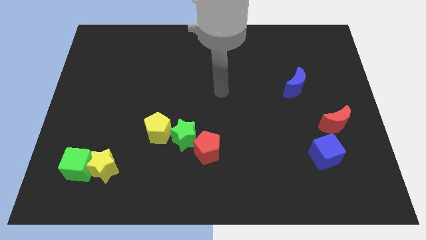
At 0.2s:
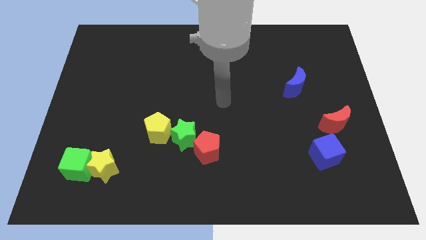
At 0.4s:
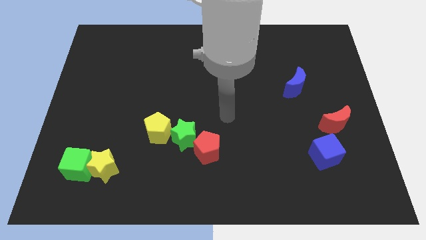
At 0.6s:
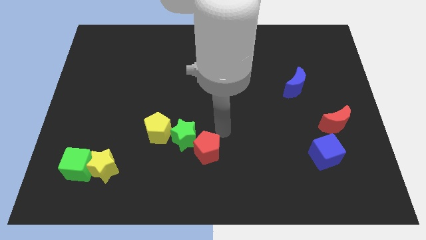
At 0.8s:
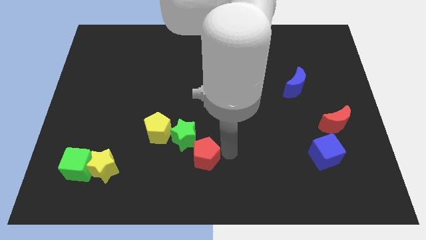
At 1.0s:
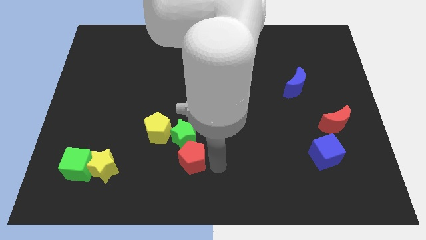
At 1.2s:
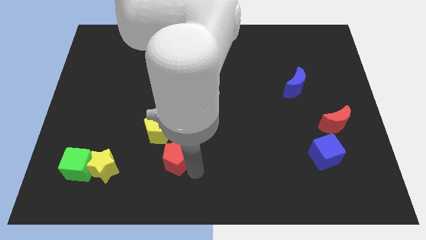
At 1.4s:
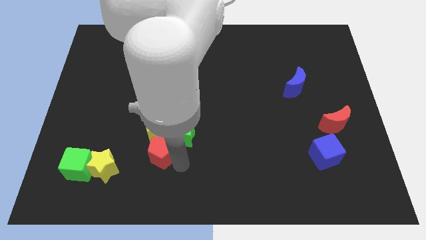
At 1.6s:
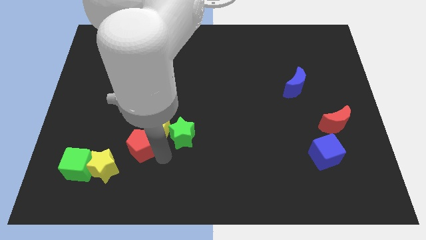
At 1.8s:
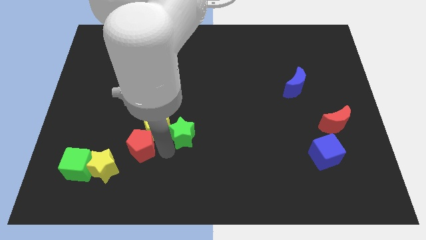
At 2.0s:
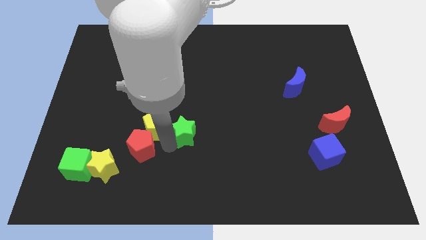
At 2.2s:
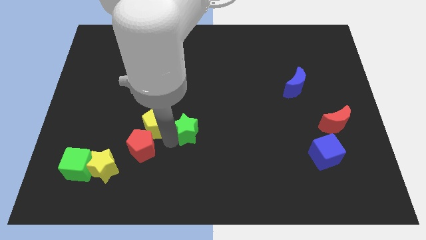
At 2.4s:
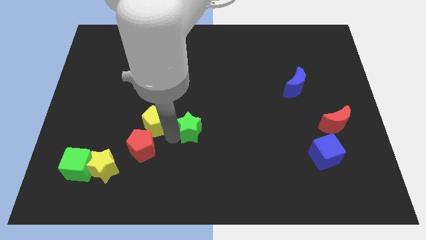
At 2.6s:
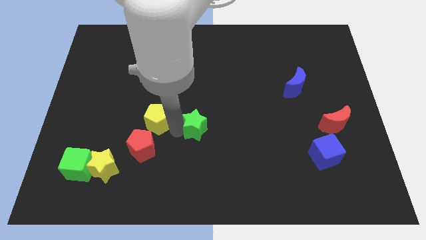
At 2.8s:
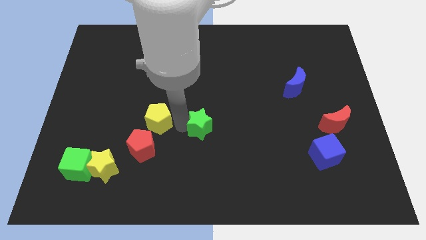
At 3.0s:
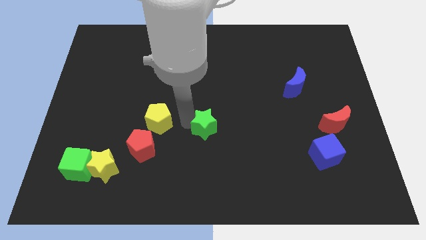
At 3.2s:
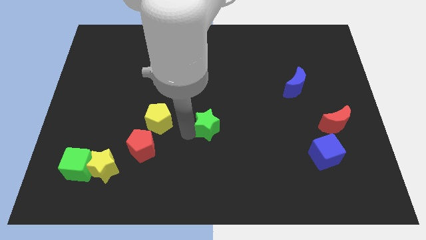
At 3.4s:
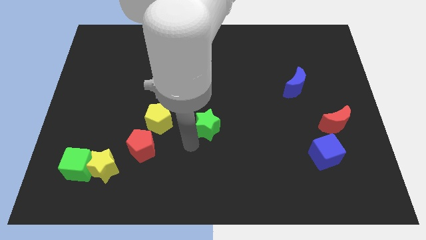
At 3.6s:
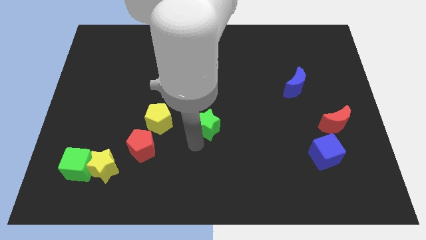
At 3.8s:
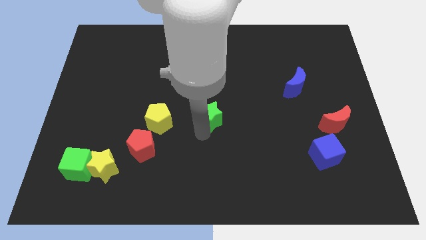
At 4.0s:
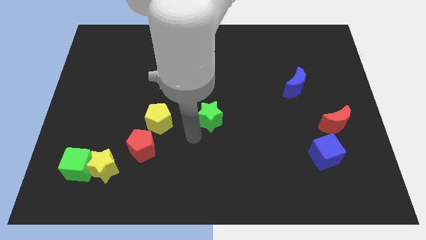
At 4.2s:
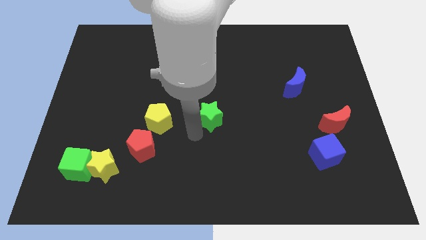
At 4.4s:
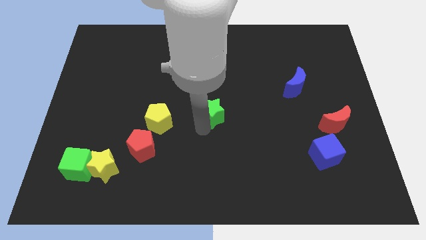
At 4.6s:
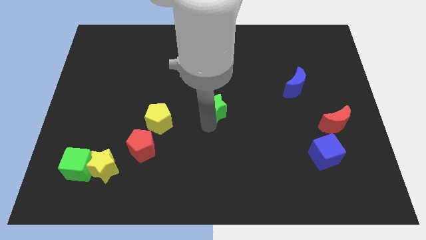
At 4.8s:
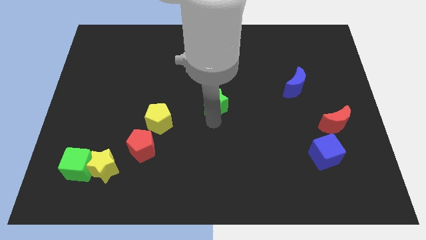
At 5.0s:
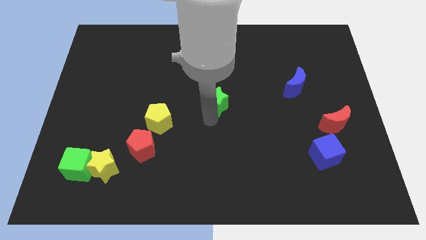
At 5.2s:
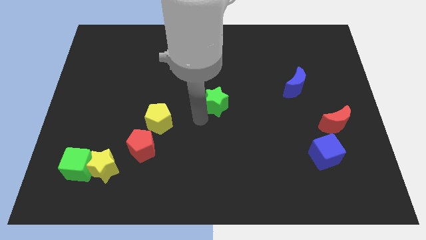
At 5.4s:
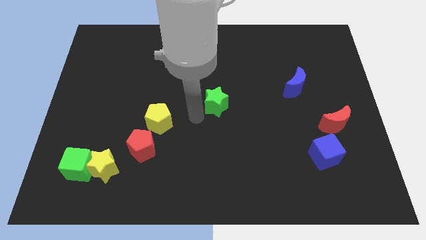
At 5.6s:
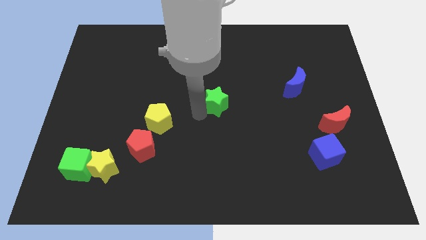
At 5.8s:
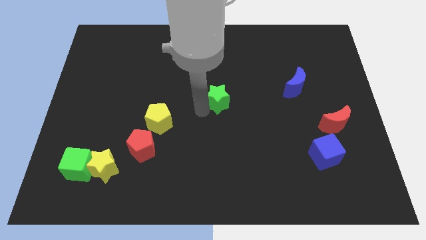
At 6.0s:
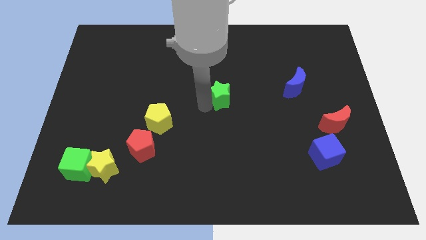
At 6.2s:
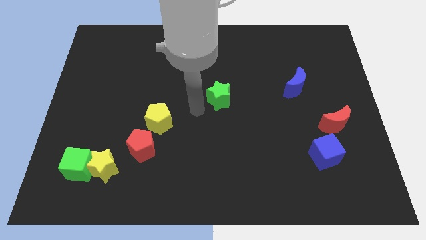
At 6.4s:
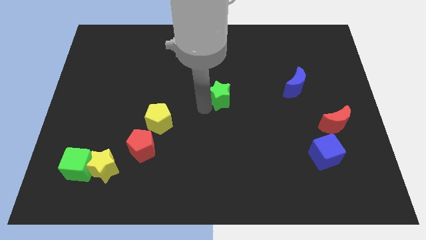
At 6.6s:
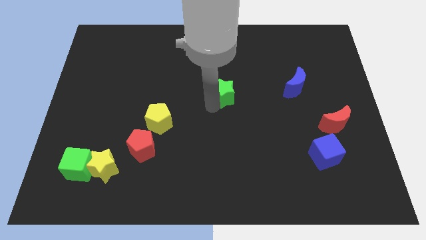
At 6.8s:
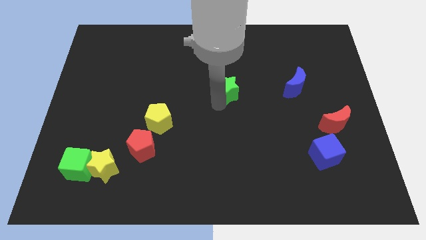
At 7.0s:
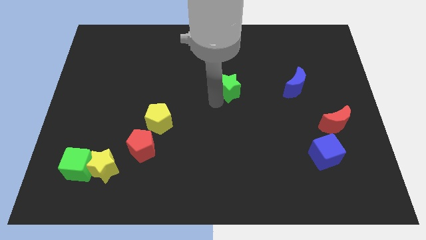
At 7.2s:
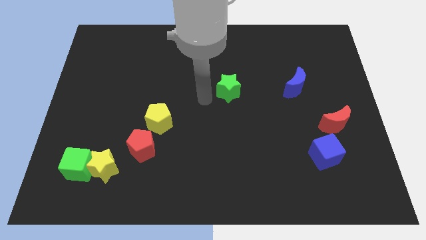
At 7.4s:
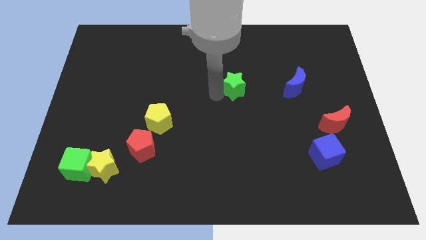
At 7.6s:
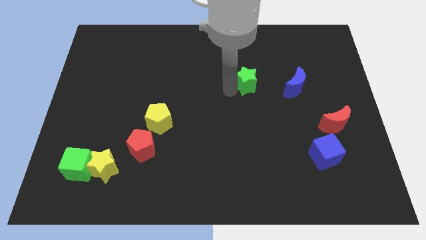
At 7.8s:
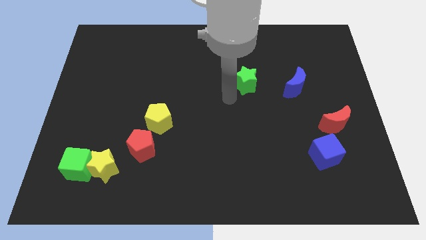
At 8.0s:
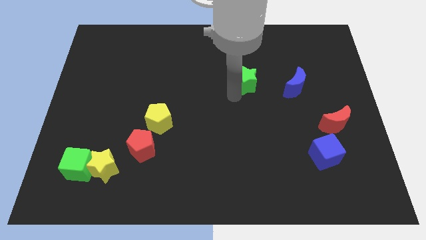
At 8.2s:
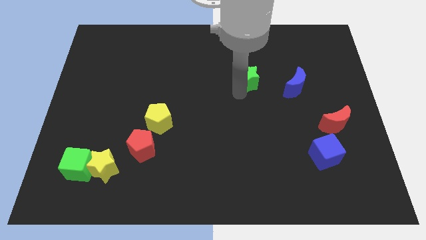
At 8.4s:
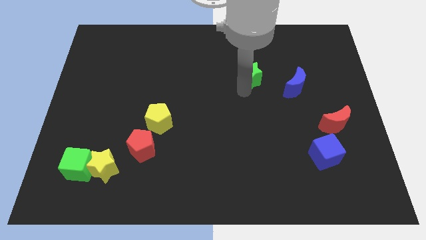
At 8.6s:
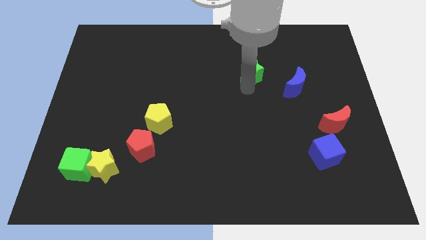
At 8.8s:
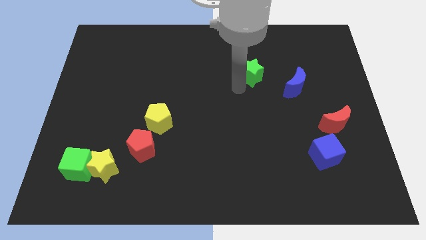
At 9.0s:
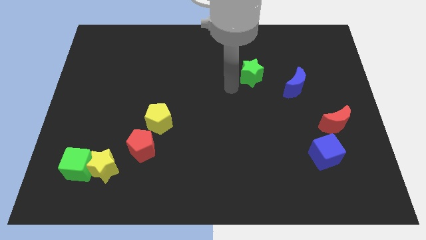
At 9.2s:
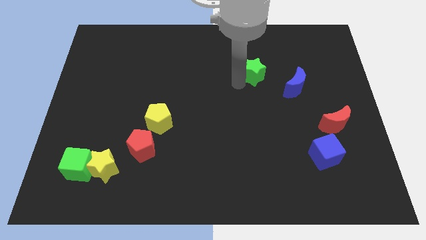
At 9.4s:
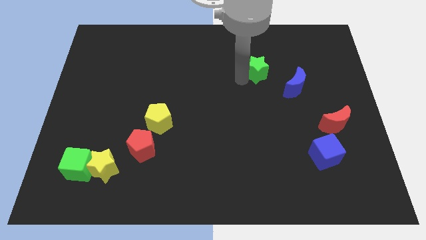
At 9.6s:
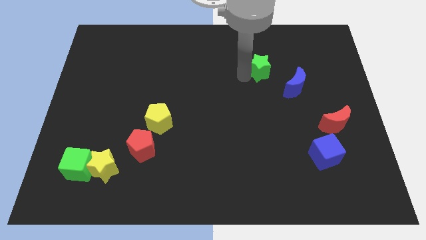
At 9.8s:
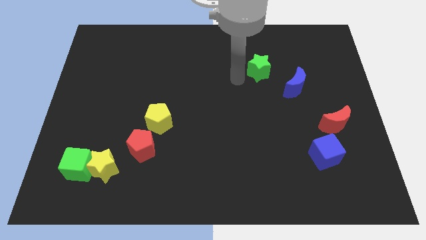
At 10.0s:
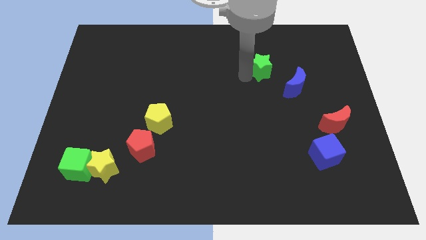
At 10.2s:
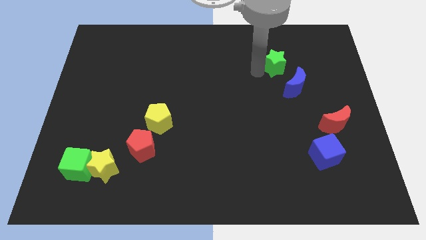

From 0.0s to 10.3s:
move the green star to the top side of the blue moon

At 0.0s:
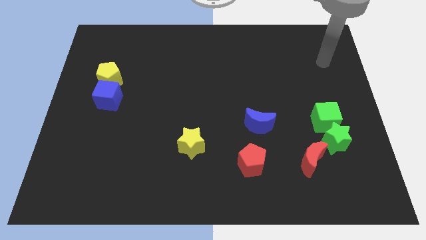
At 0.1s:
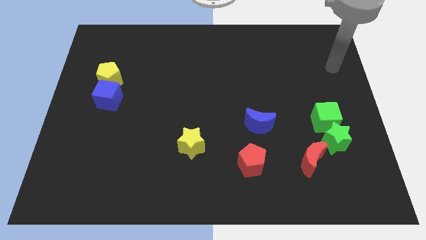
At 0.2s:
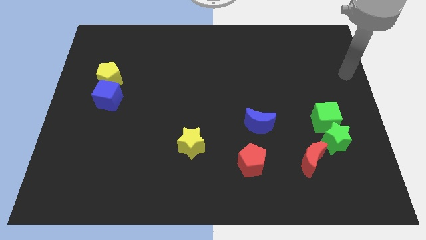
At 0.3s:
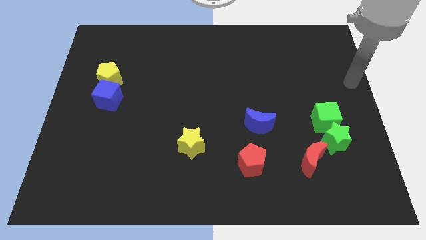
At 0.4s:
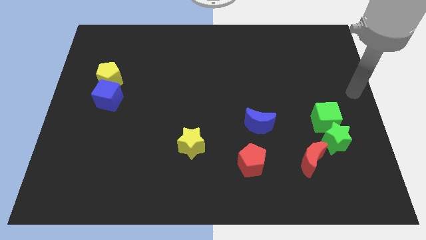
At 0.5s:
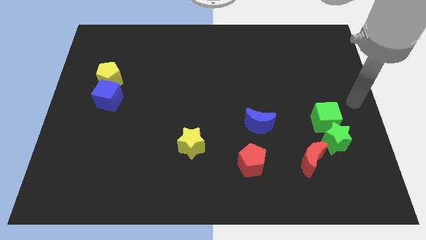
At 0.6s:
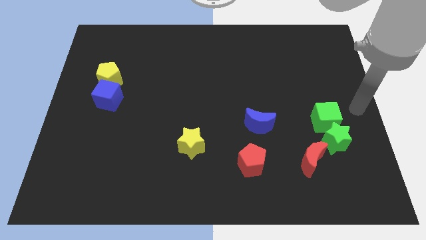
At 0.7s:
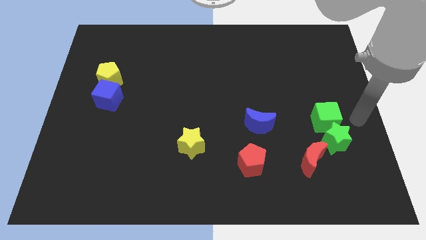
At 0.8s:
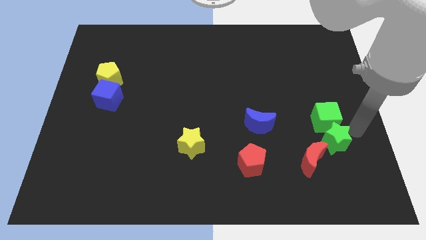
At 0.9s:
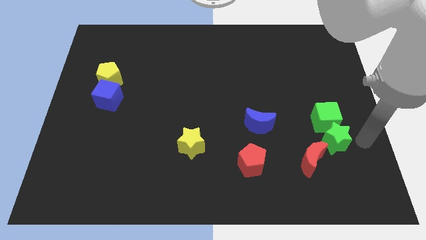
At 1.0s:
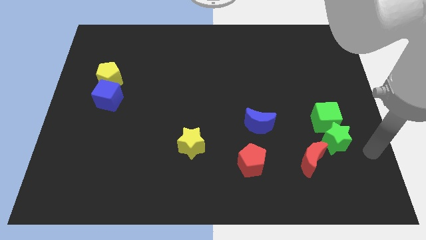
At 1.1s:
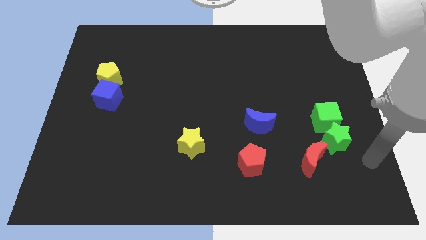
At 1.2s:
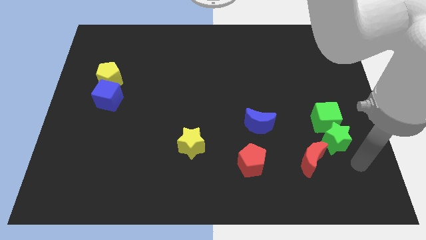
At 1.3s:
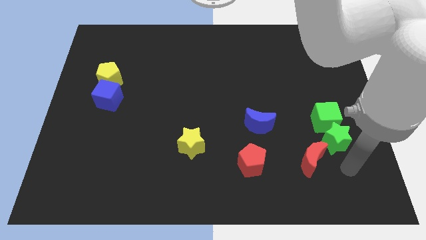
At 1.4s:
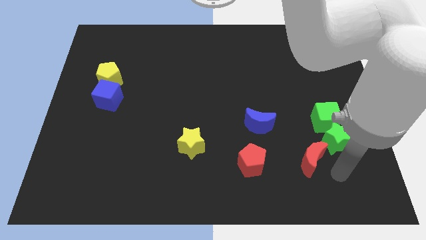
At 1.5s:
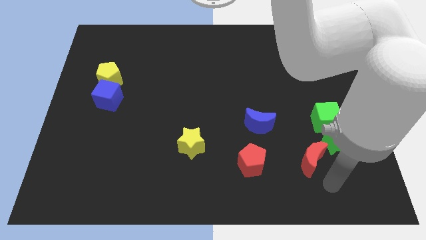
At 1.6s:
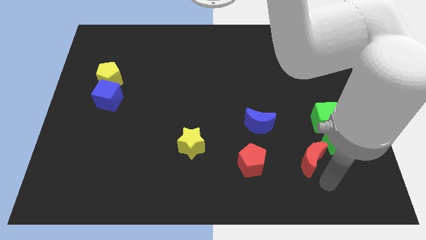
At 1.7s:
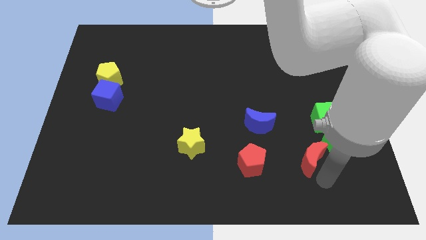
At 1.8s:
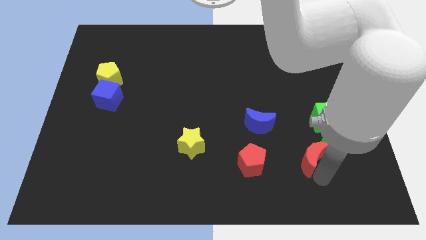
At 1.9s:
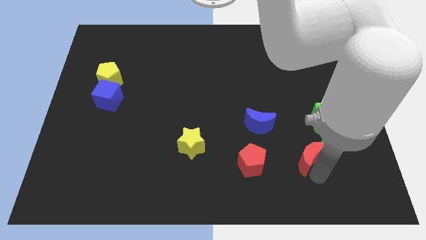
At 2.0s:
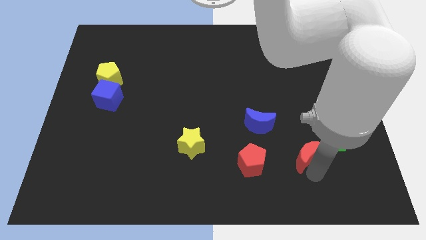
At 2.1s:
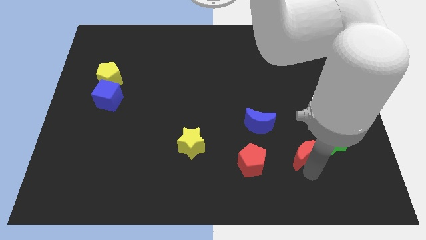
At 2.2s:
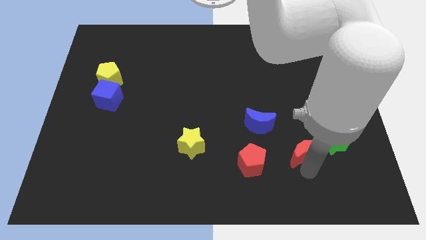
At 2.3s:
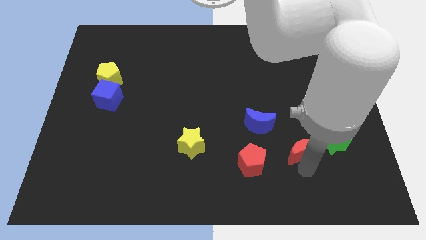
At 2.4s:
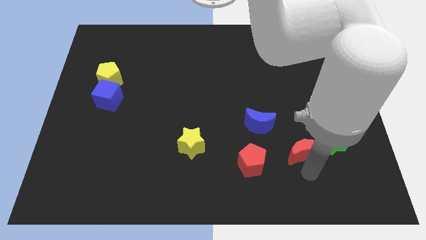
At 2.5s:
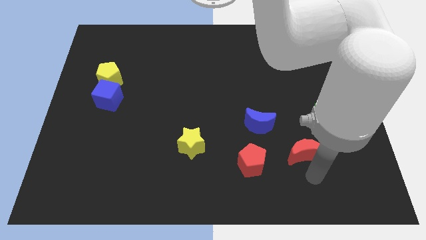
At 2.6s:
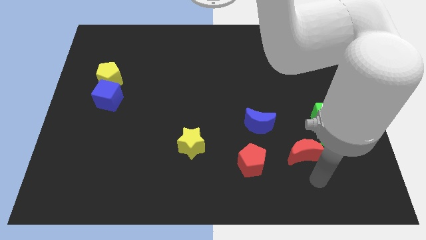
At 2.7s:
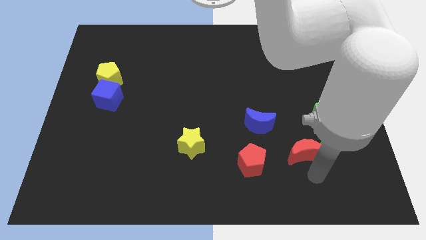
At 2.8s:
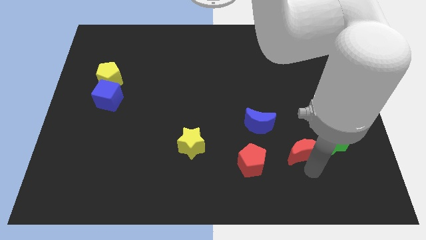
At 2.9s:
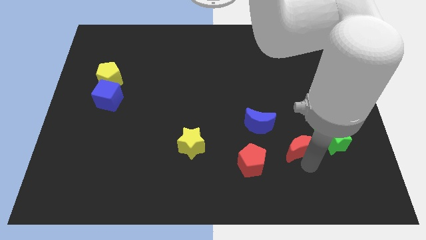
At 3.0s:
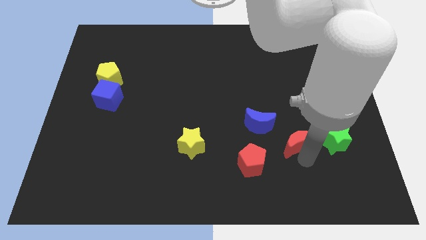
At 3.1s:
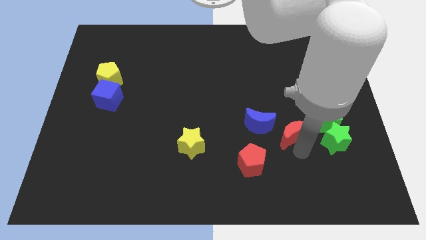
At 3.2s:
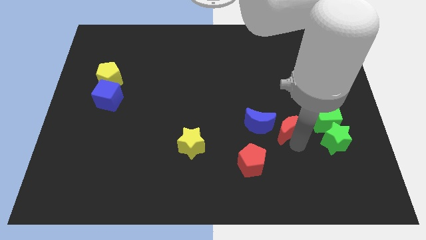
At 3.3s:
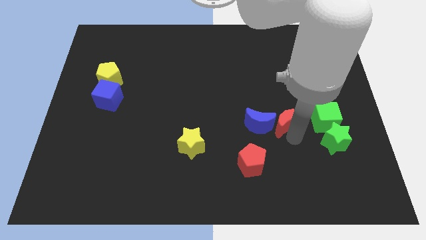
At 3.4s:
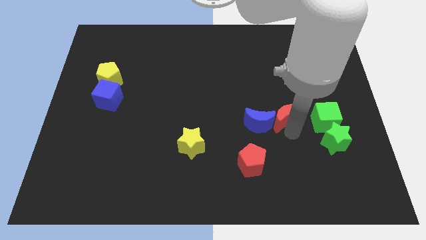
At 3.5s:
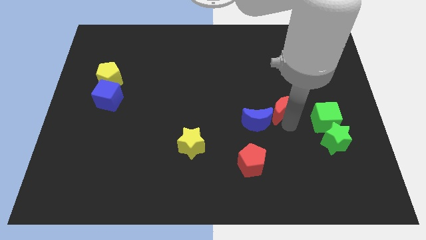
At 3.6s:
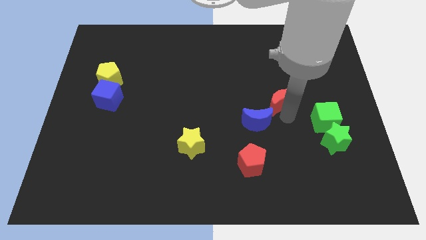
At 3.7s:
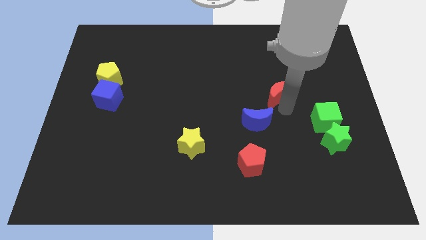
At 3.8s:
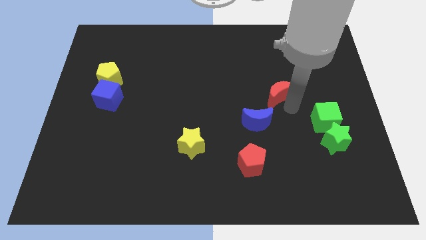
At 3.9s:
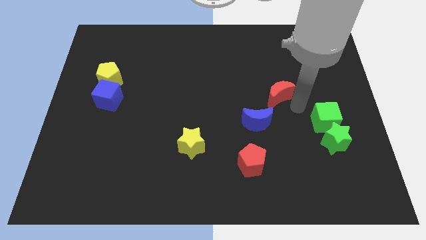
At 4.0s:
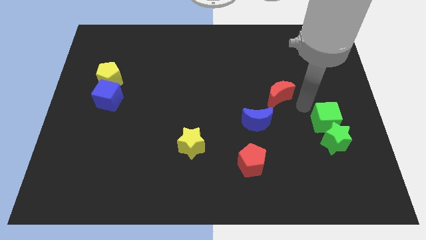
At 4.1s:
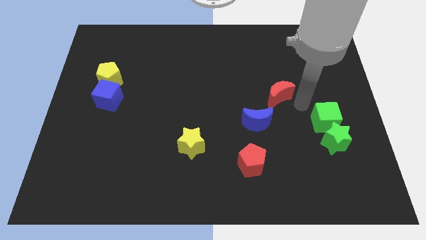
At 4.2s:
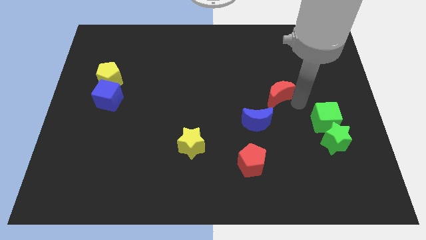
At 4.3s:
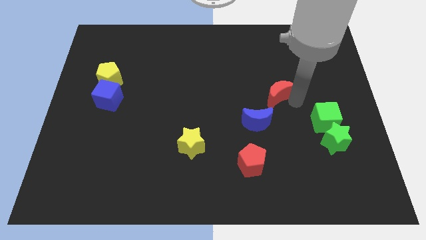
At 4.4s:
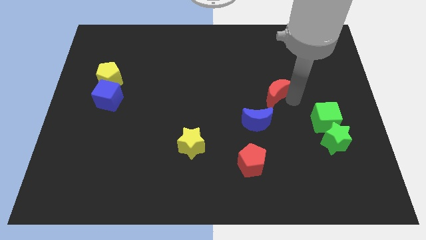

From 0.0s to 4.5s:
push the red moon to the top side of the blue moon
